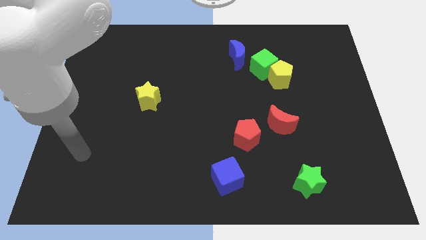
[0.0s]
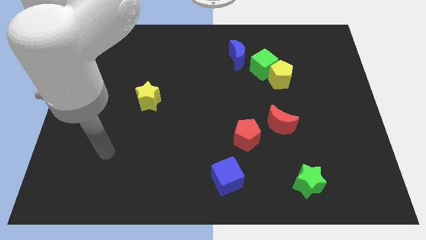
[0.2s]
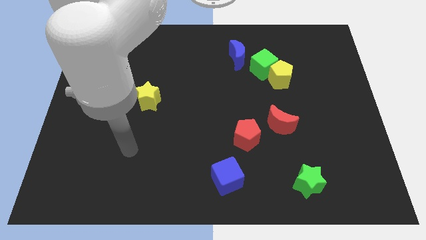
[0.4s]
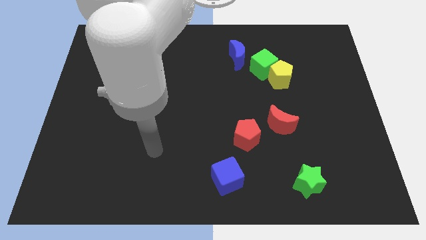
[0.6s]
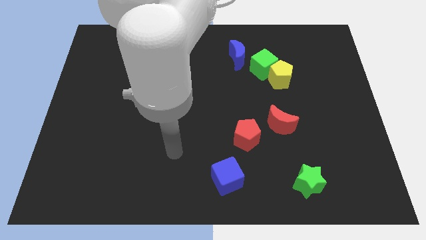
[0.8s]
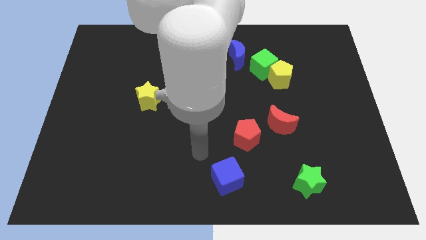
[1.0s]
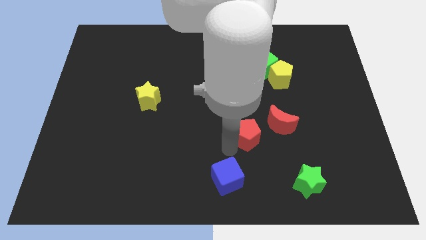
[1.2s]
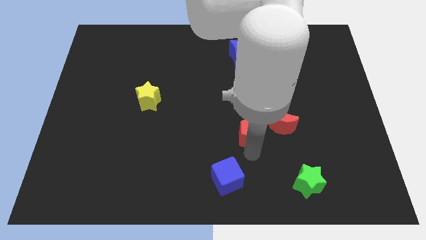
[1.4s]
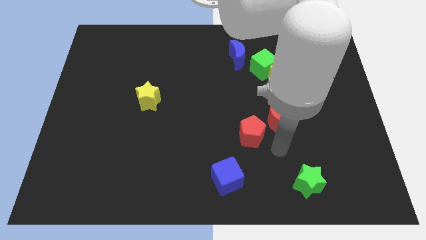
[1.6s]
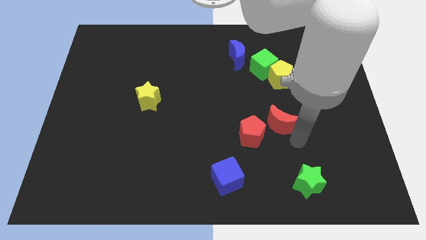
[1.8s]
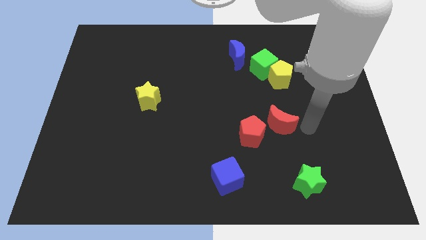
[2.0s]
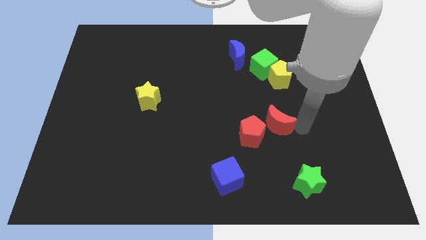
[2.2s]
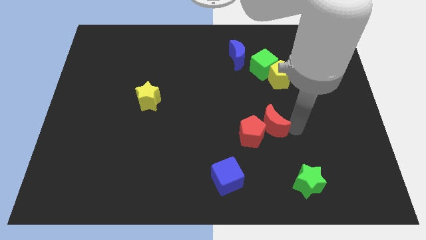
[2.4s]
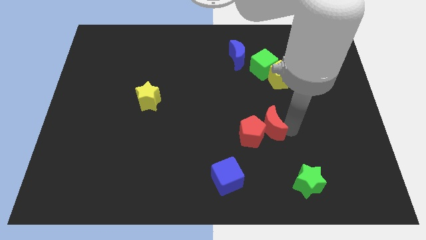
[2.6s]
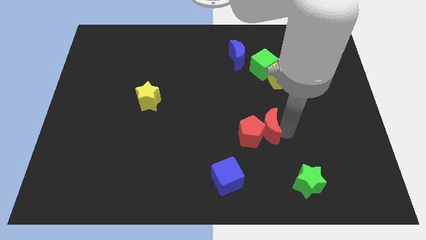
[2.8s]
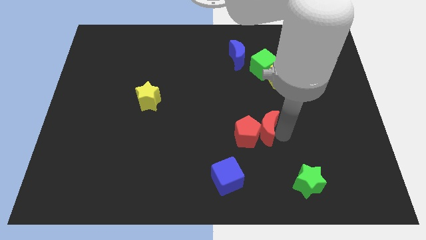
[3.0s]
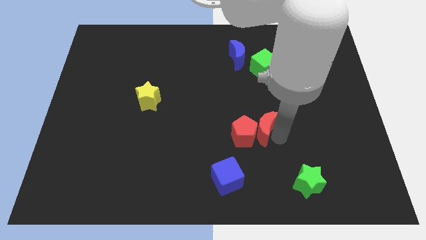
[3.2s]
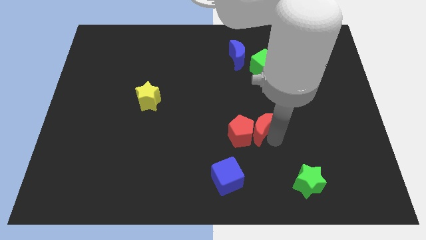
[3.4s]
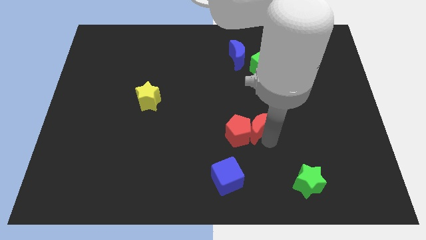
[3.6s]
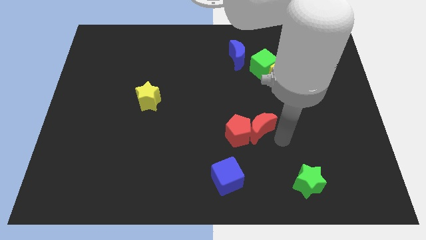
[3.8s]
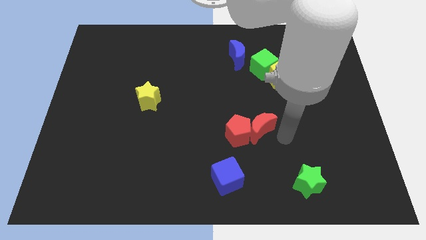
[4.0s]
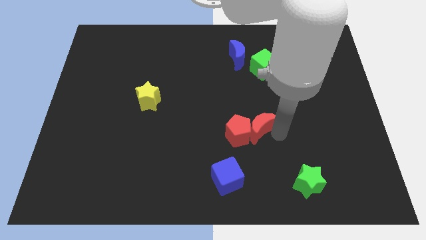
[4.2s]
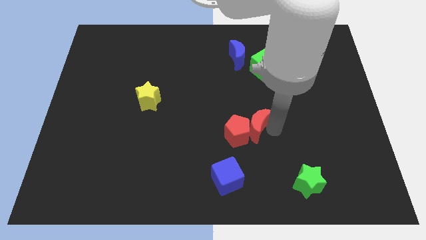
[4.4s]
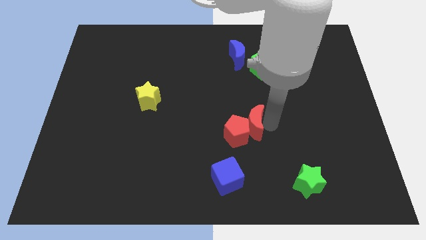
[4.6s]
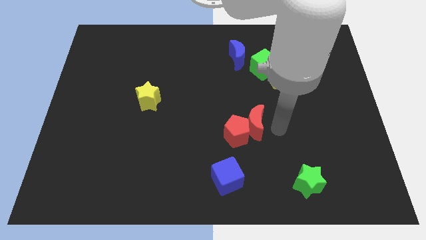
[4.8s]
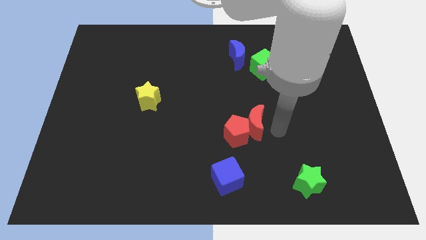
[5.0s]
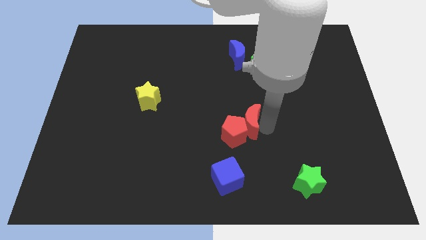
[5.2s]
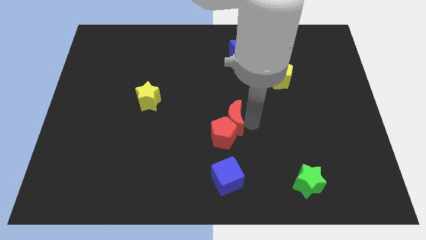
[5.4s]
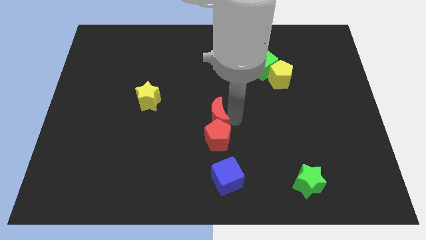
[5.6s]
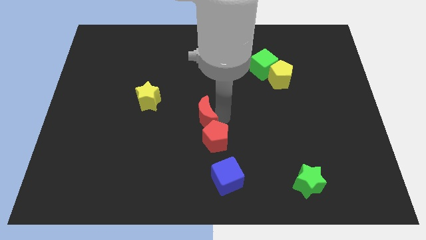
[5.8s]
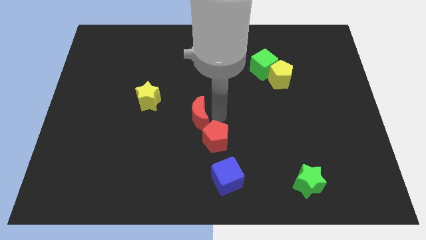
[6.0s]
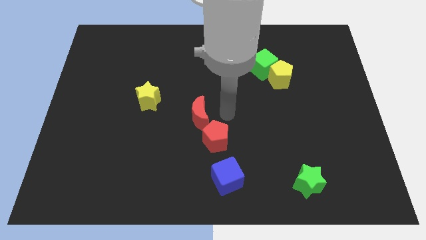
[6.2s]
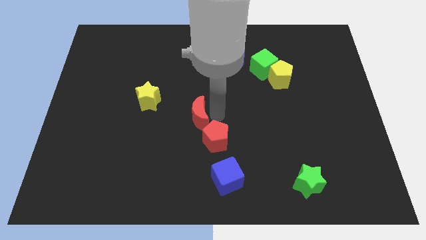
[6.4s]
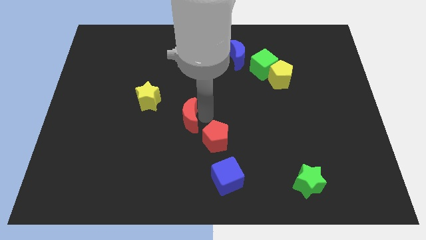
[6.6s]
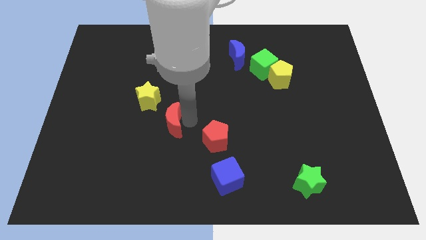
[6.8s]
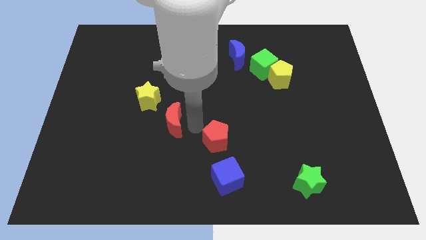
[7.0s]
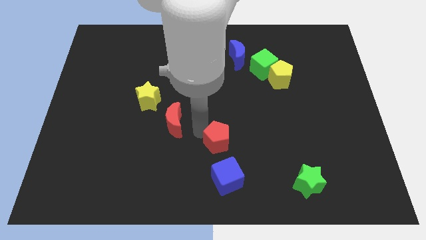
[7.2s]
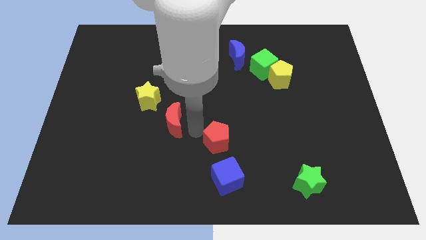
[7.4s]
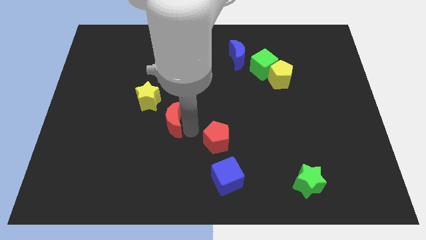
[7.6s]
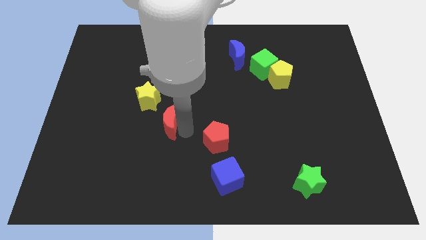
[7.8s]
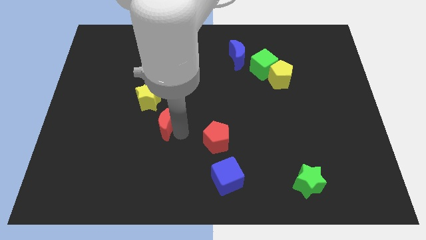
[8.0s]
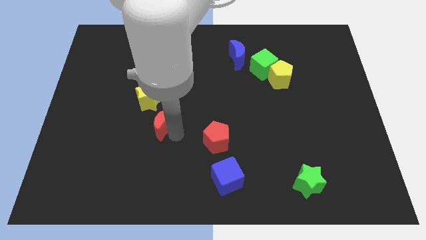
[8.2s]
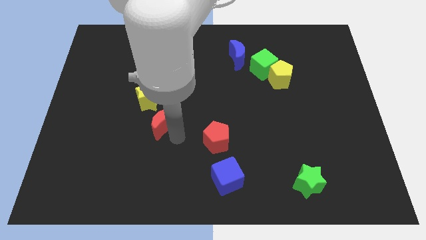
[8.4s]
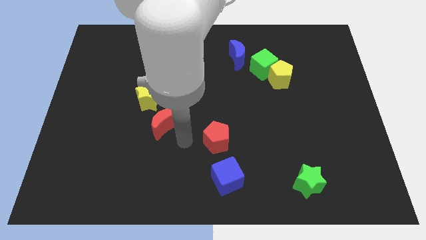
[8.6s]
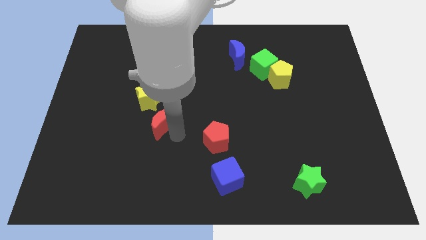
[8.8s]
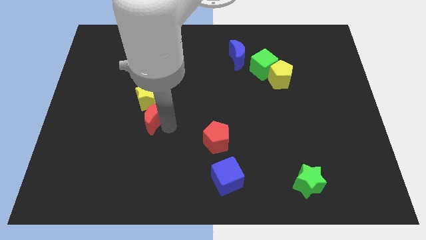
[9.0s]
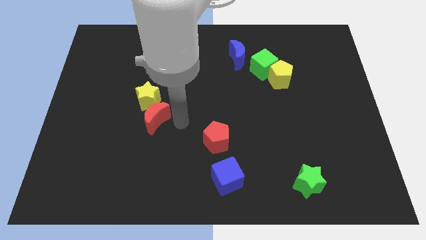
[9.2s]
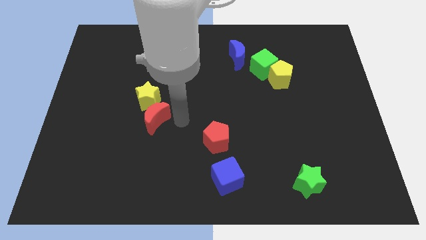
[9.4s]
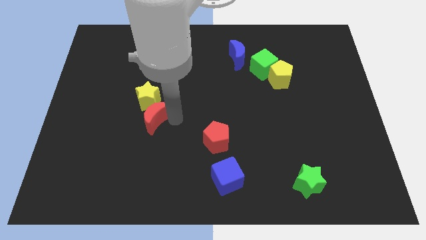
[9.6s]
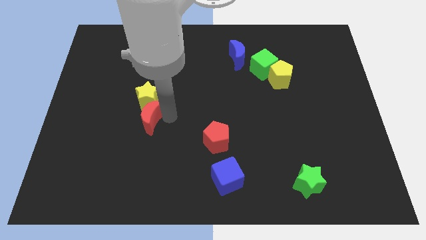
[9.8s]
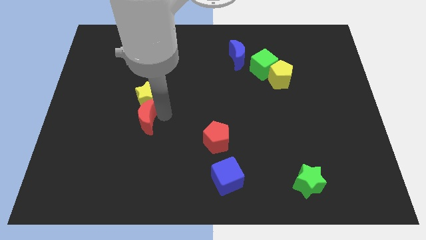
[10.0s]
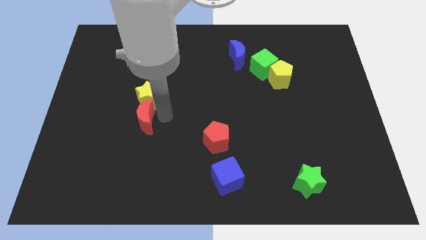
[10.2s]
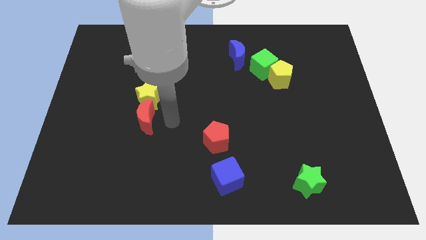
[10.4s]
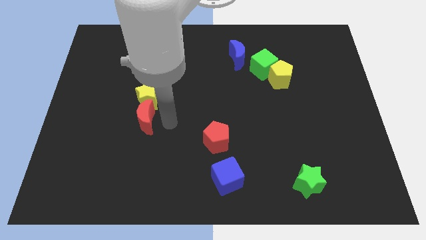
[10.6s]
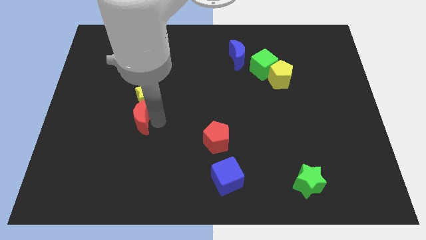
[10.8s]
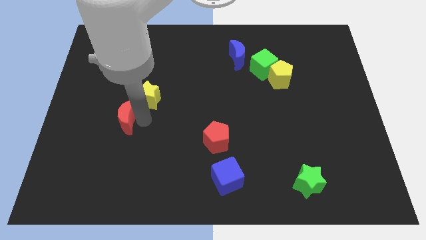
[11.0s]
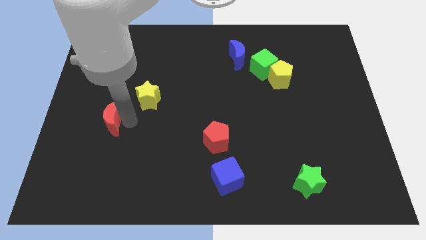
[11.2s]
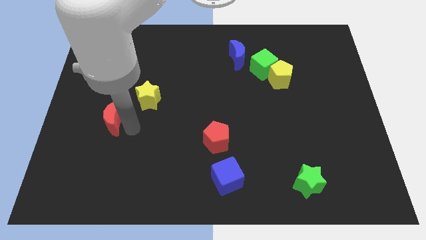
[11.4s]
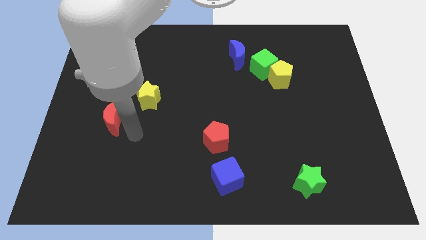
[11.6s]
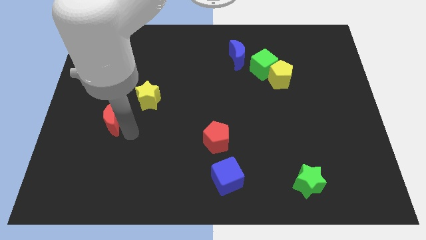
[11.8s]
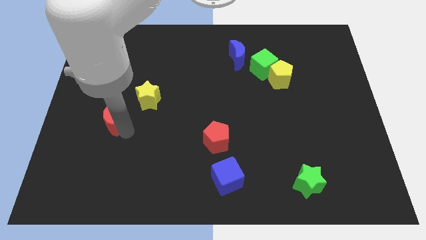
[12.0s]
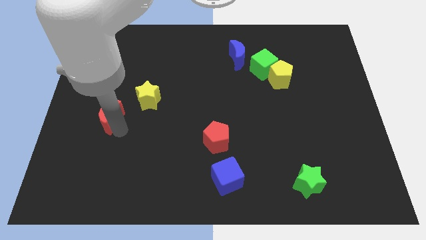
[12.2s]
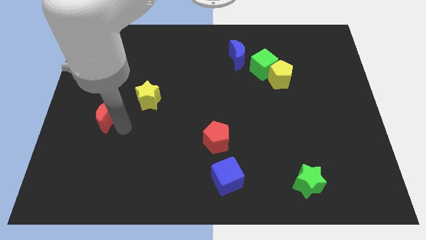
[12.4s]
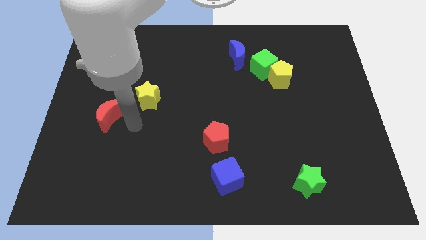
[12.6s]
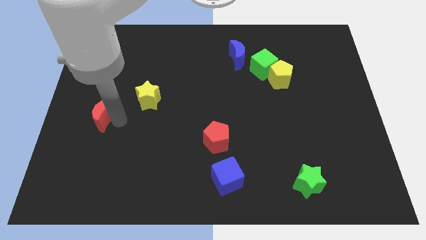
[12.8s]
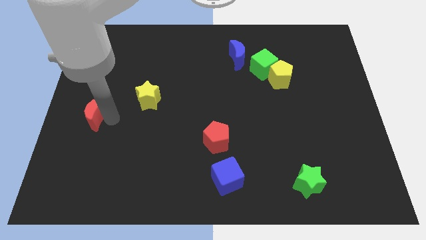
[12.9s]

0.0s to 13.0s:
slide the red moon to the left side of the board

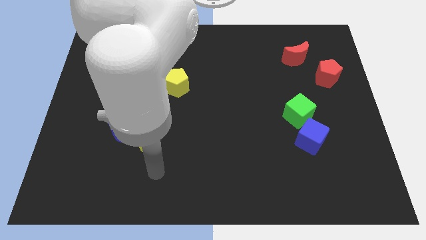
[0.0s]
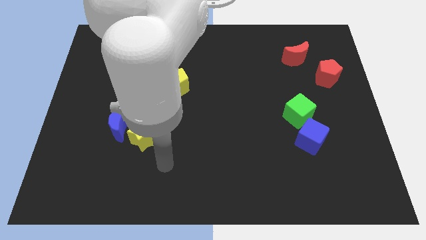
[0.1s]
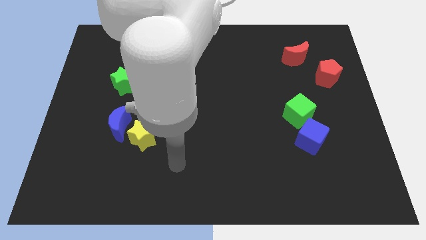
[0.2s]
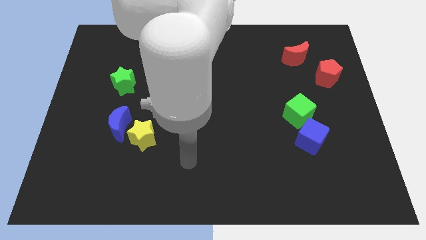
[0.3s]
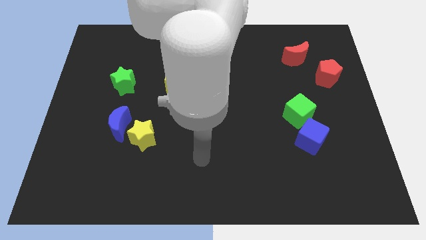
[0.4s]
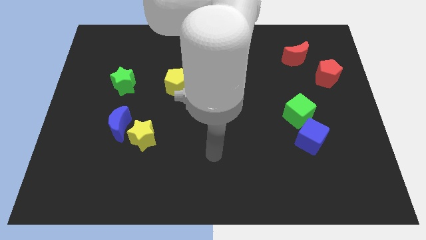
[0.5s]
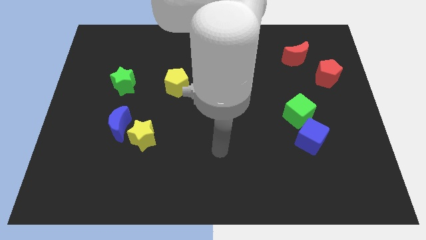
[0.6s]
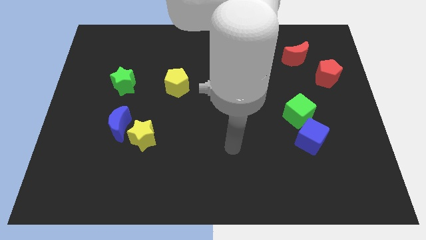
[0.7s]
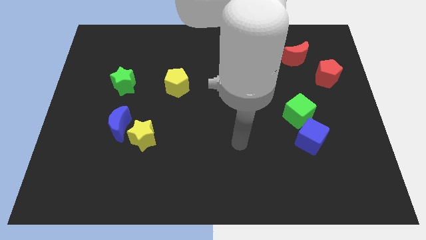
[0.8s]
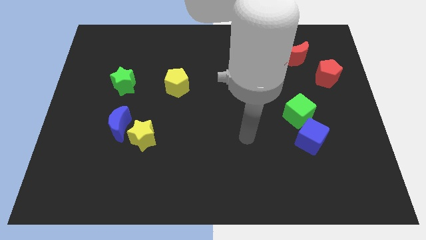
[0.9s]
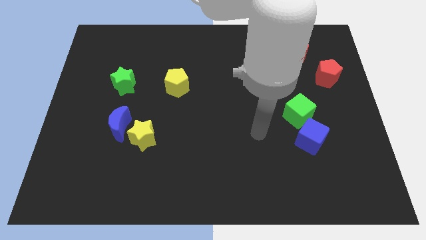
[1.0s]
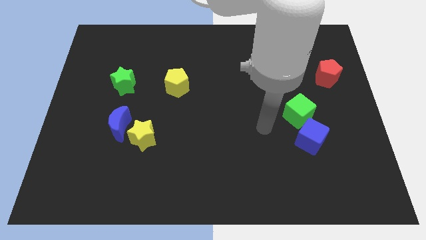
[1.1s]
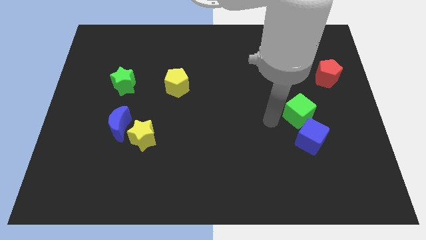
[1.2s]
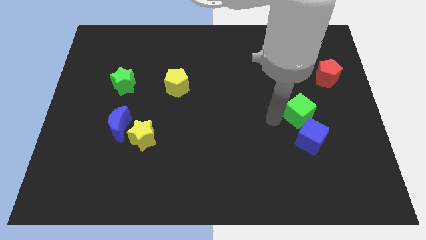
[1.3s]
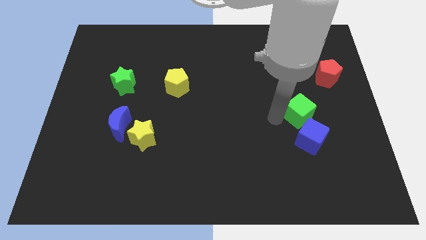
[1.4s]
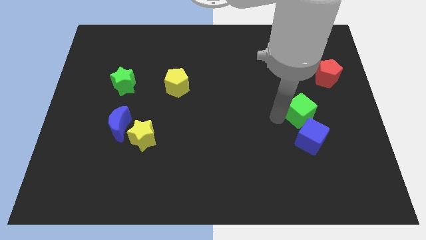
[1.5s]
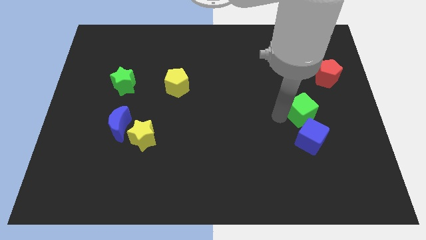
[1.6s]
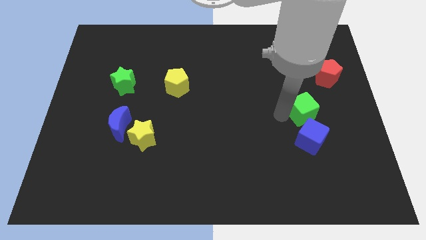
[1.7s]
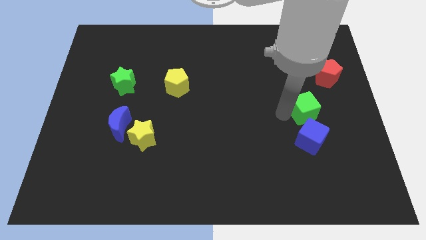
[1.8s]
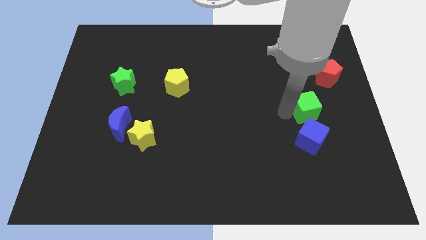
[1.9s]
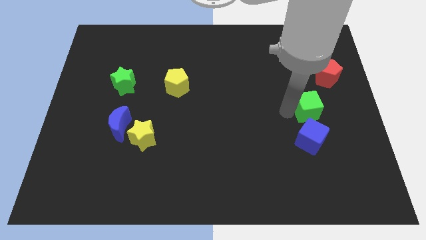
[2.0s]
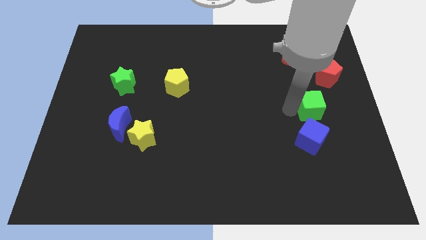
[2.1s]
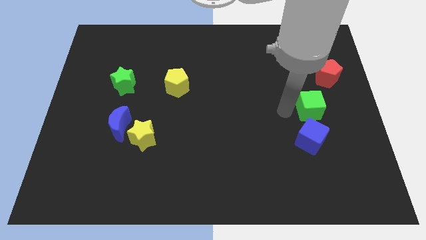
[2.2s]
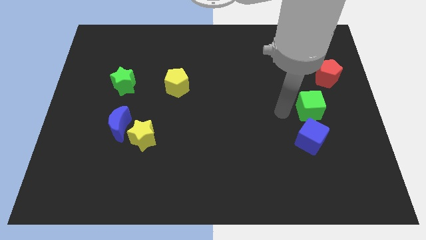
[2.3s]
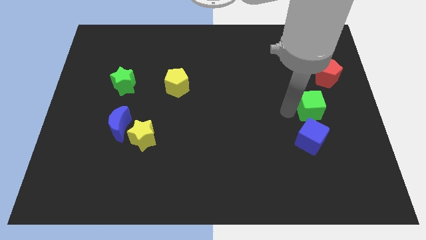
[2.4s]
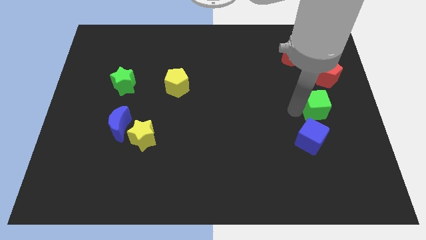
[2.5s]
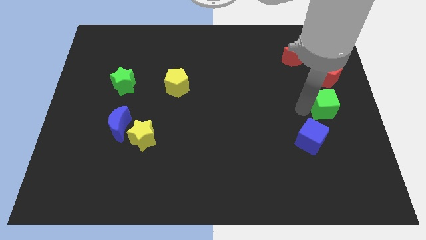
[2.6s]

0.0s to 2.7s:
move the green cube to the right side of the board
